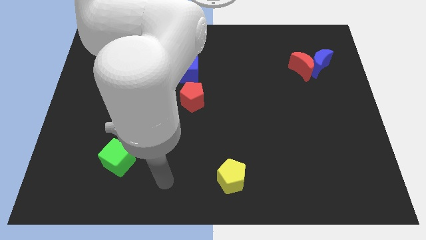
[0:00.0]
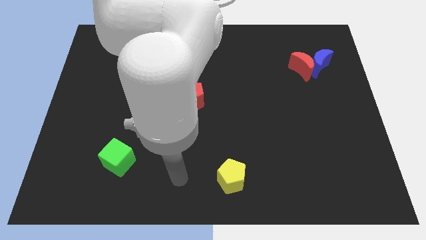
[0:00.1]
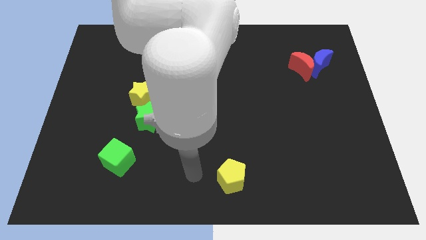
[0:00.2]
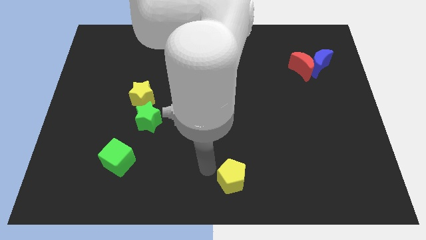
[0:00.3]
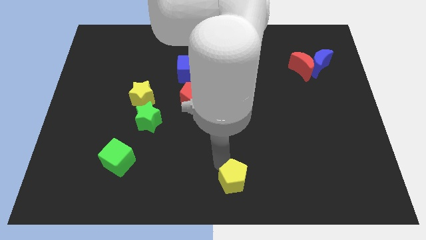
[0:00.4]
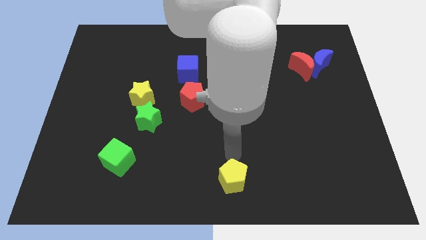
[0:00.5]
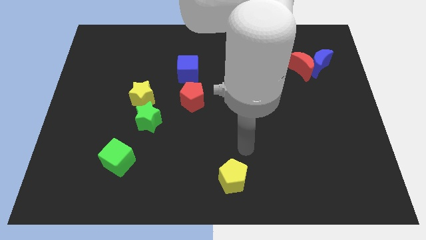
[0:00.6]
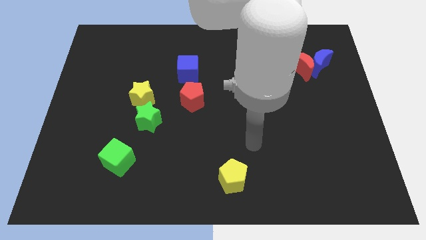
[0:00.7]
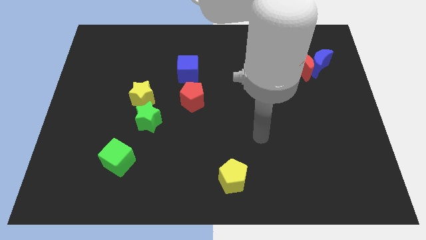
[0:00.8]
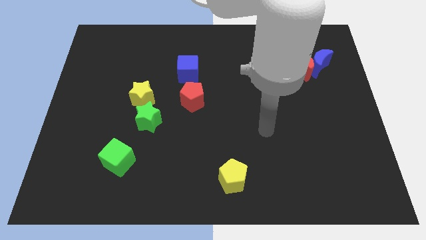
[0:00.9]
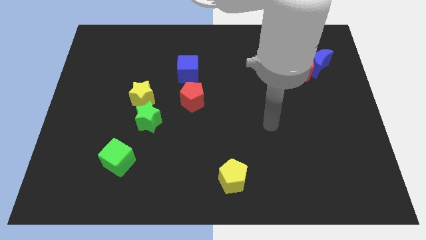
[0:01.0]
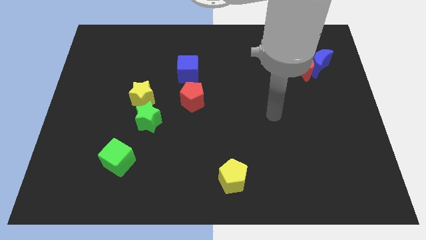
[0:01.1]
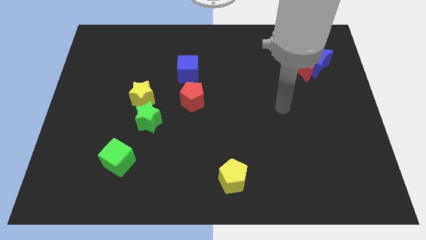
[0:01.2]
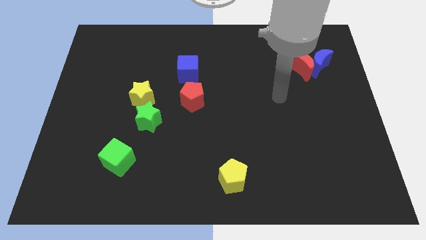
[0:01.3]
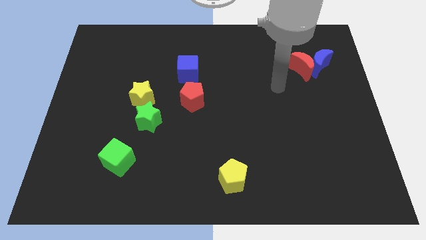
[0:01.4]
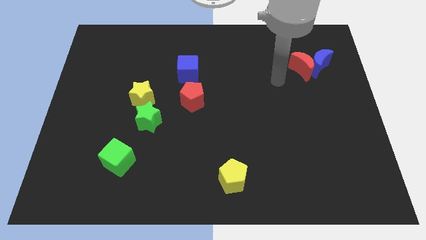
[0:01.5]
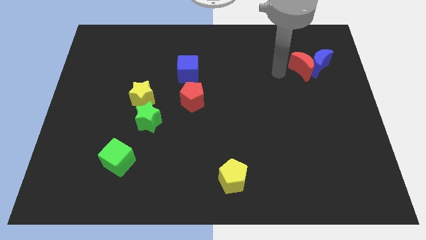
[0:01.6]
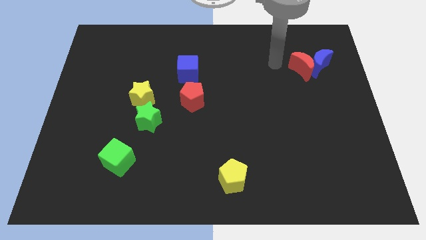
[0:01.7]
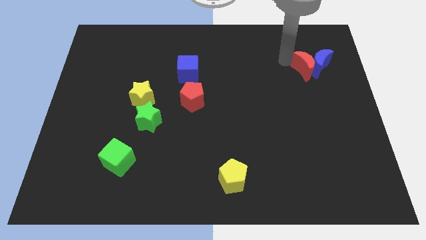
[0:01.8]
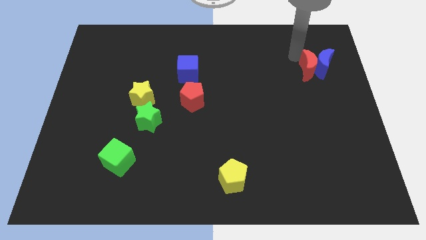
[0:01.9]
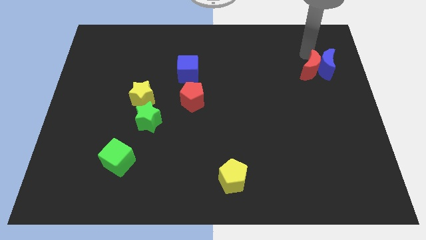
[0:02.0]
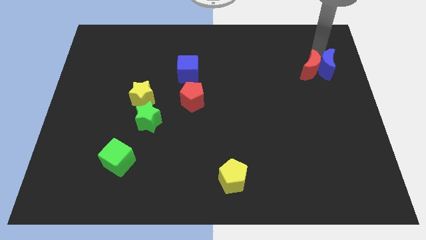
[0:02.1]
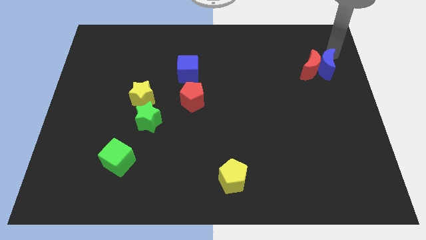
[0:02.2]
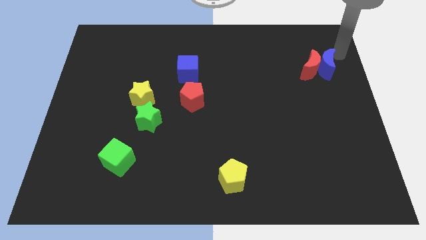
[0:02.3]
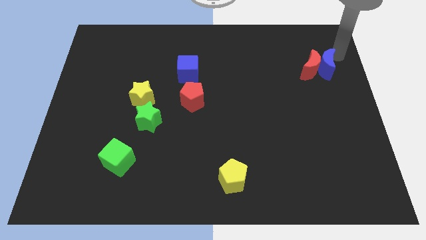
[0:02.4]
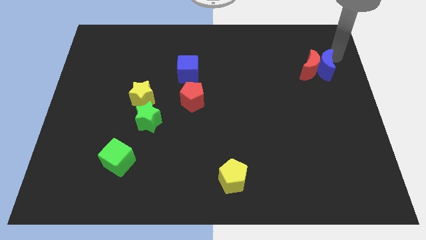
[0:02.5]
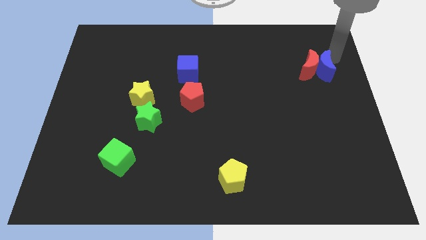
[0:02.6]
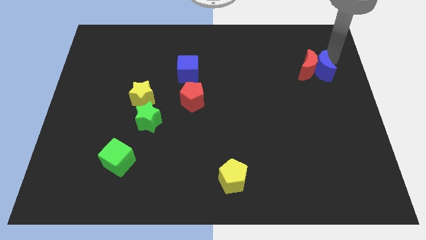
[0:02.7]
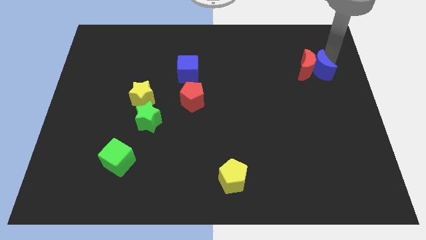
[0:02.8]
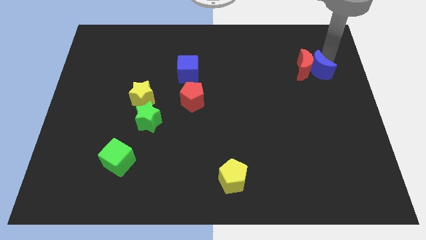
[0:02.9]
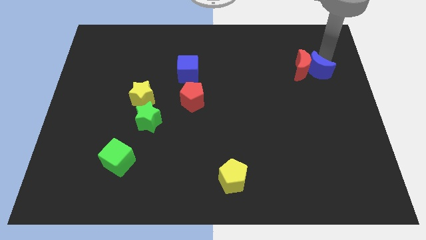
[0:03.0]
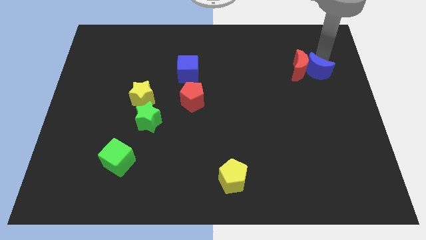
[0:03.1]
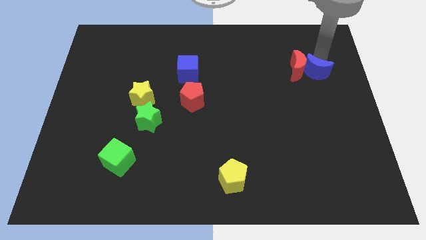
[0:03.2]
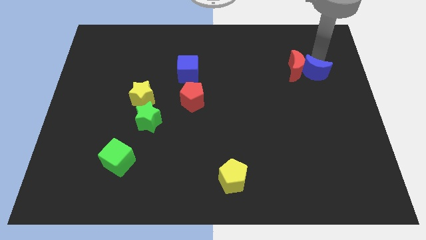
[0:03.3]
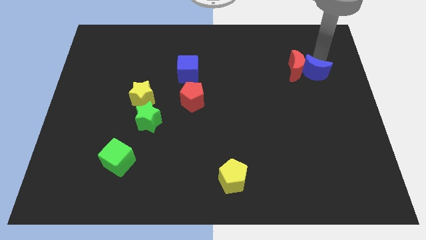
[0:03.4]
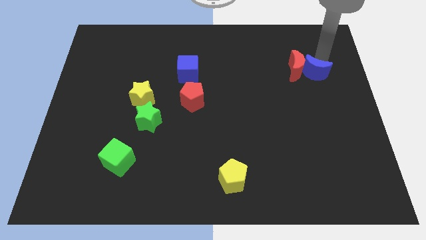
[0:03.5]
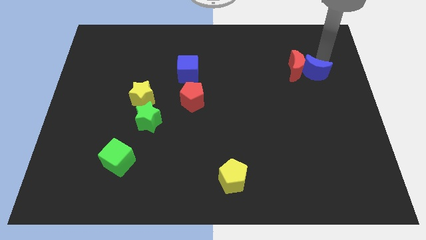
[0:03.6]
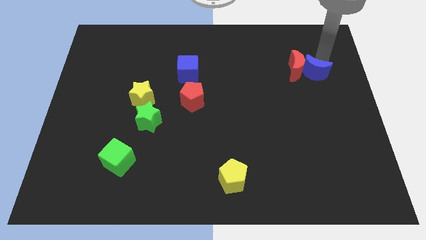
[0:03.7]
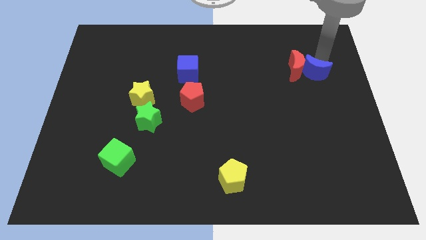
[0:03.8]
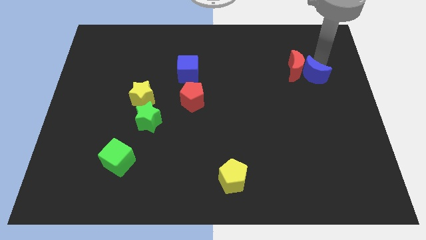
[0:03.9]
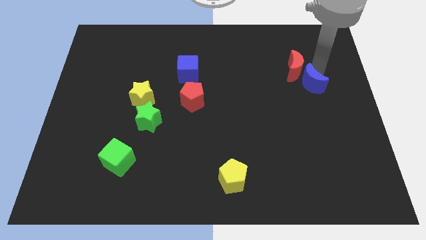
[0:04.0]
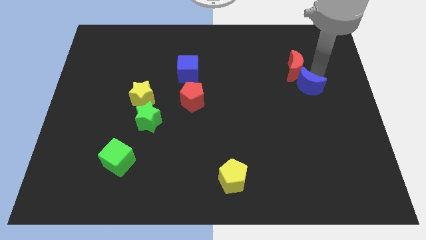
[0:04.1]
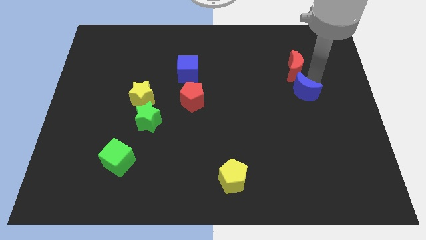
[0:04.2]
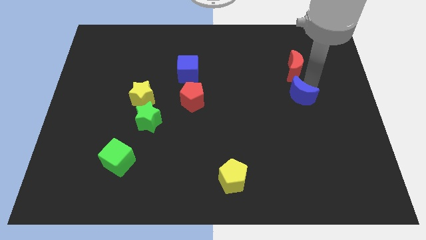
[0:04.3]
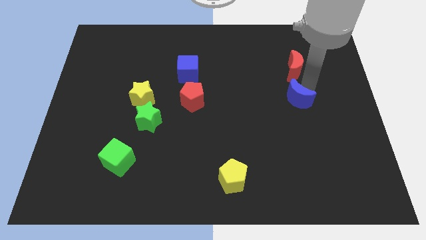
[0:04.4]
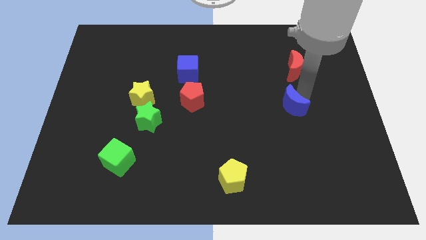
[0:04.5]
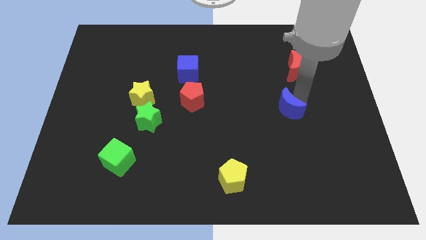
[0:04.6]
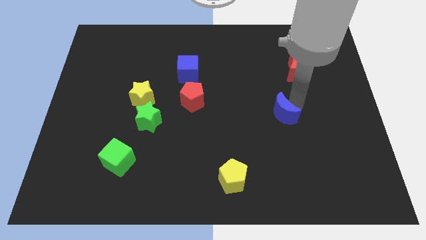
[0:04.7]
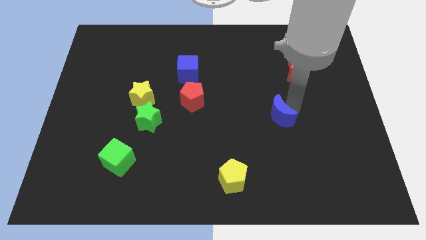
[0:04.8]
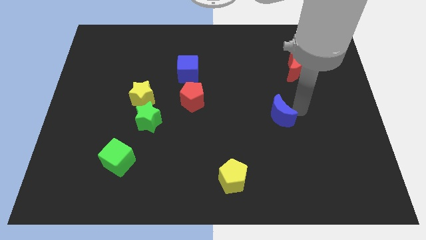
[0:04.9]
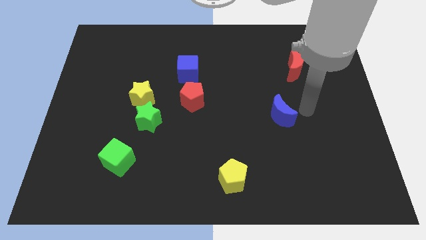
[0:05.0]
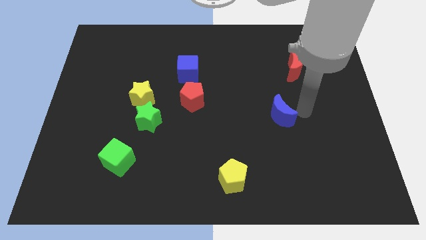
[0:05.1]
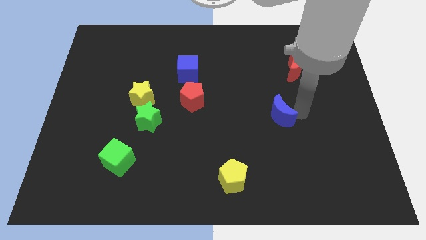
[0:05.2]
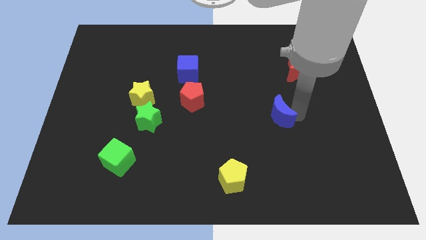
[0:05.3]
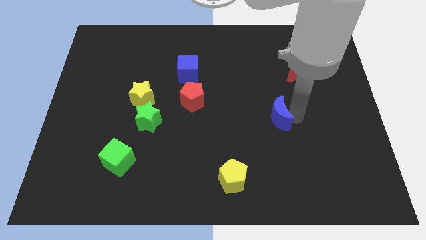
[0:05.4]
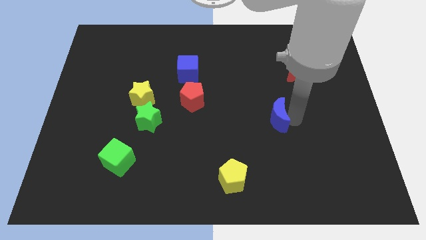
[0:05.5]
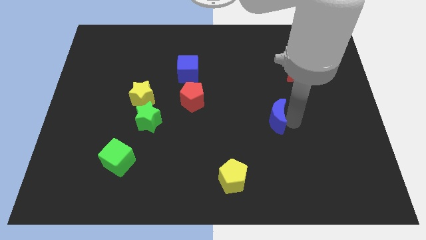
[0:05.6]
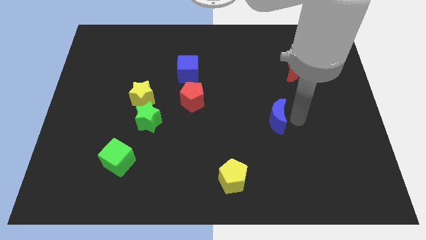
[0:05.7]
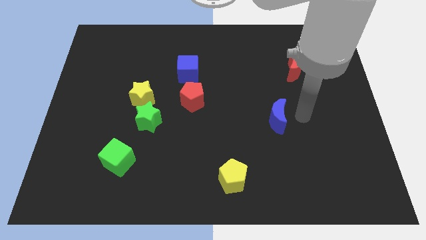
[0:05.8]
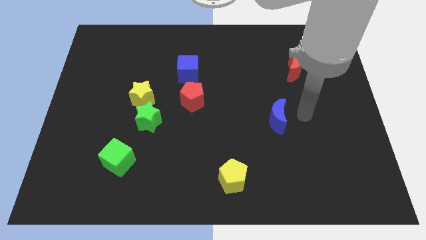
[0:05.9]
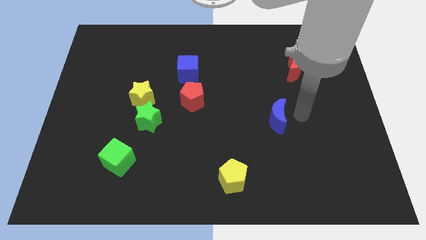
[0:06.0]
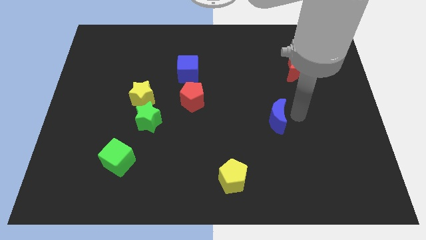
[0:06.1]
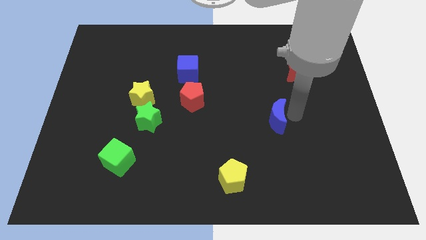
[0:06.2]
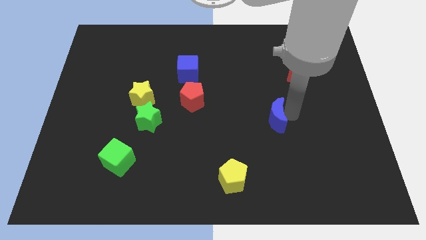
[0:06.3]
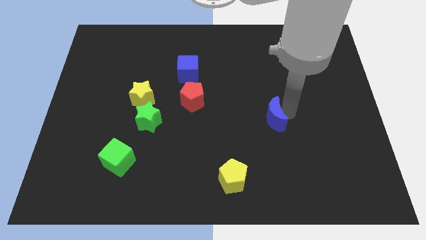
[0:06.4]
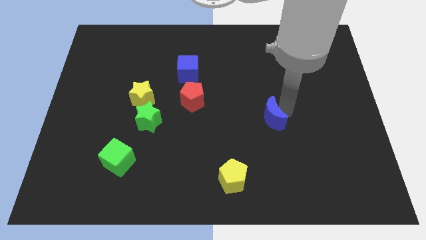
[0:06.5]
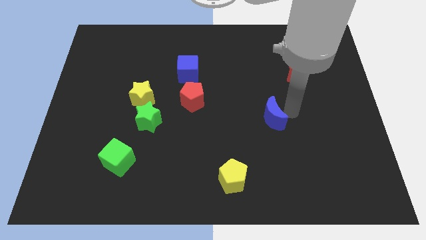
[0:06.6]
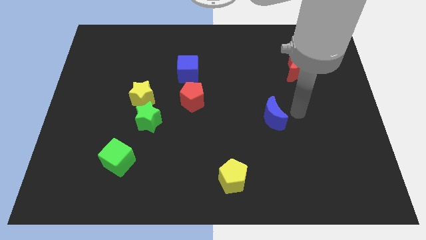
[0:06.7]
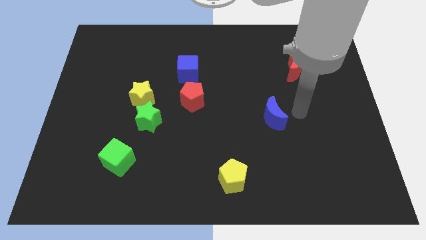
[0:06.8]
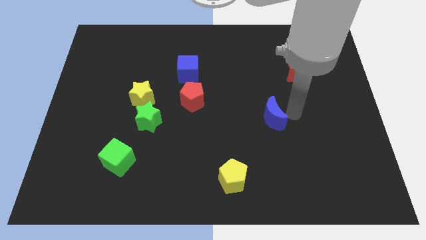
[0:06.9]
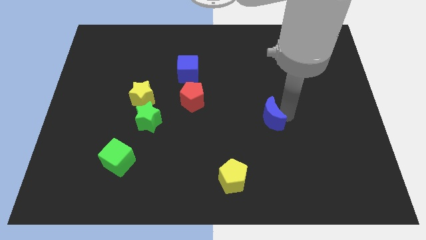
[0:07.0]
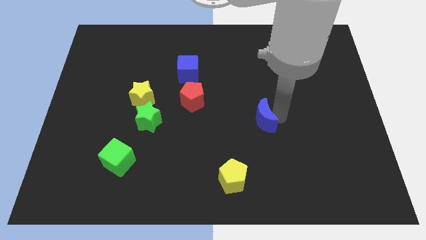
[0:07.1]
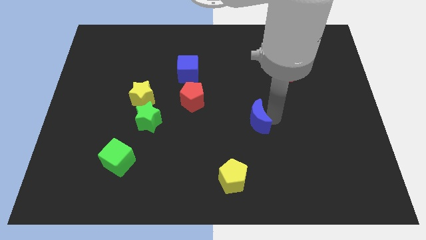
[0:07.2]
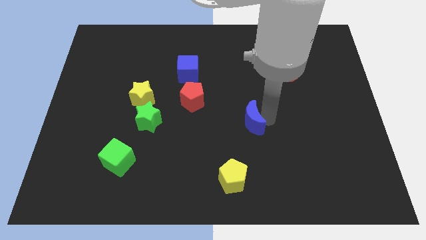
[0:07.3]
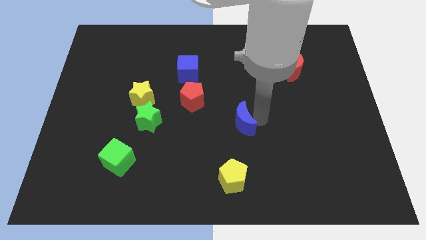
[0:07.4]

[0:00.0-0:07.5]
move the blue moon above the yellow pentagon
